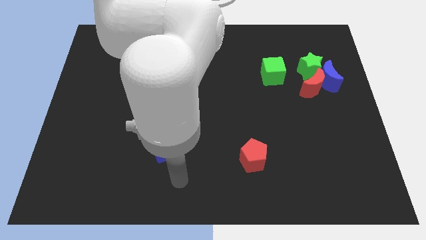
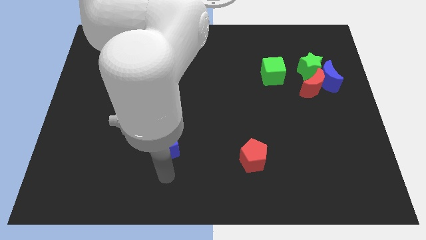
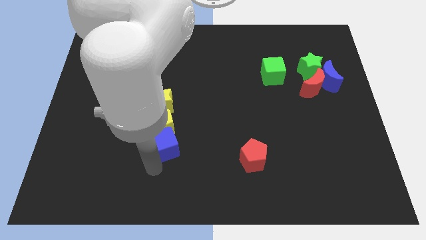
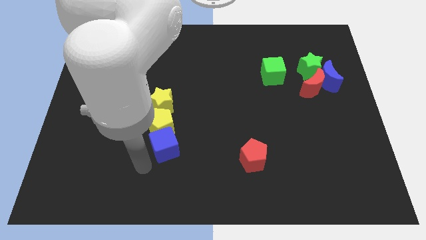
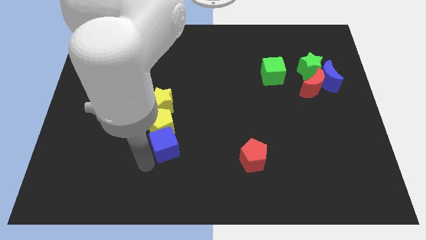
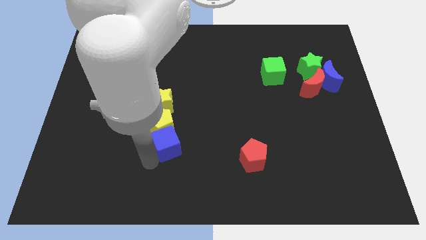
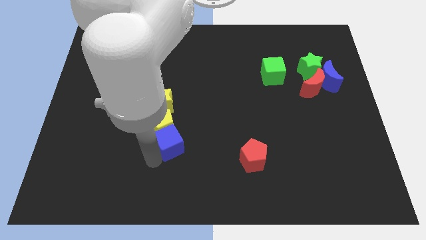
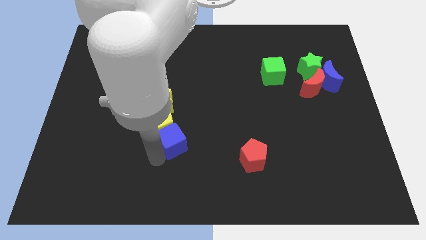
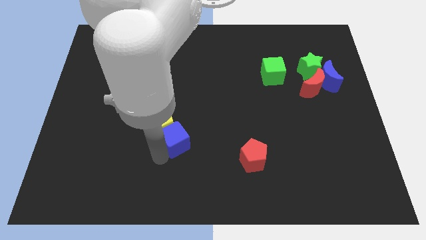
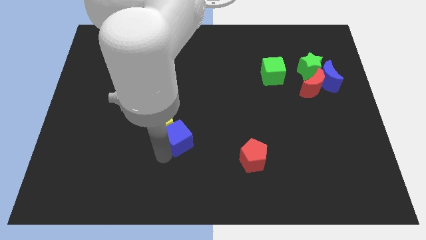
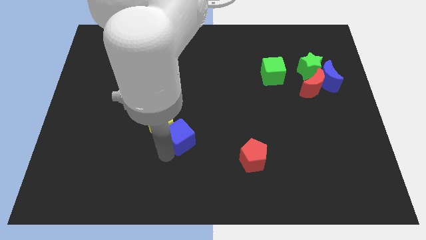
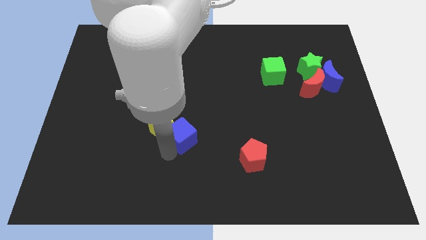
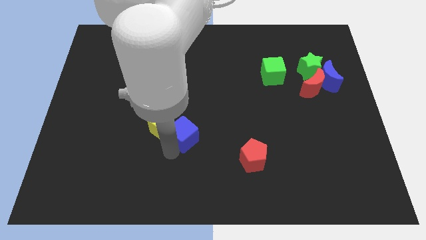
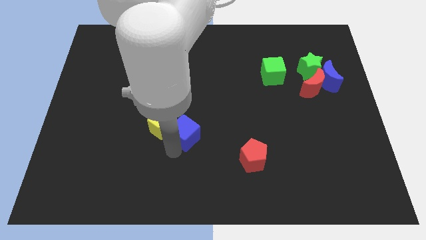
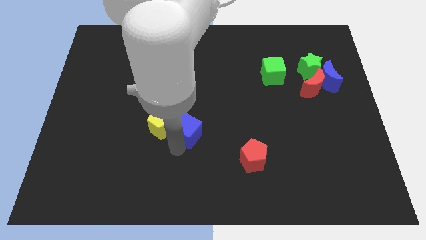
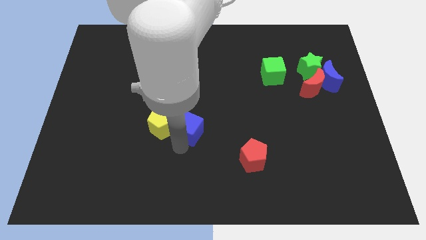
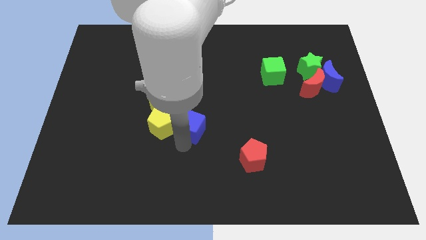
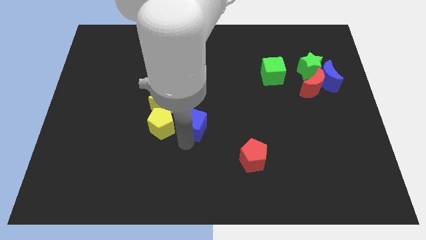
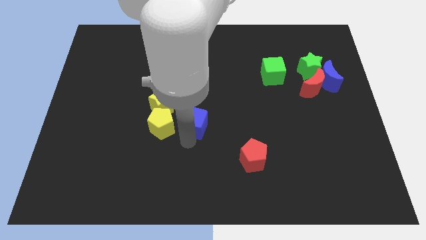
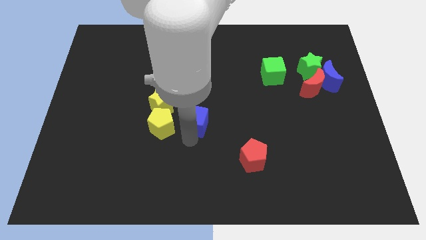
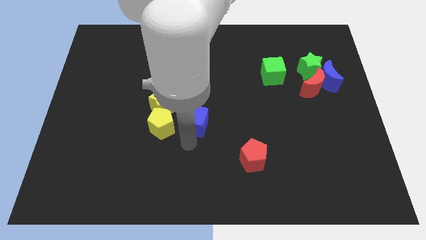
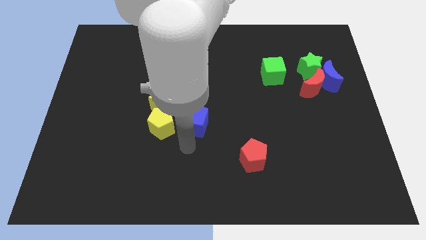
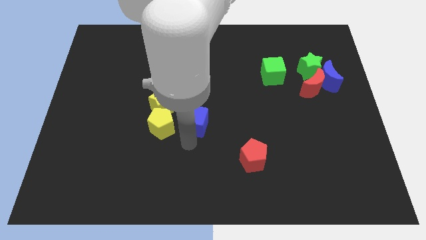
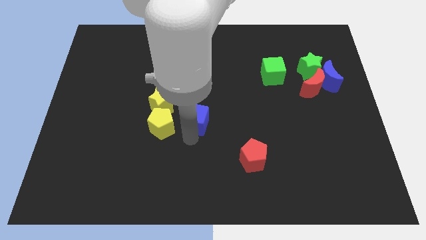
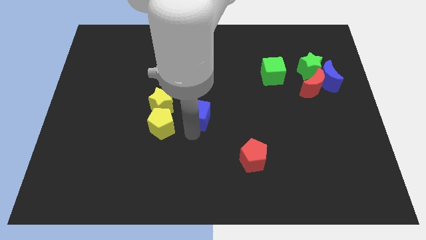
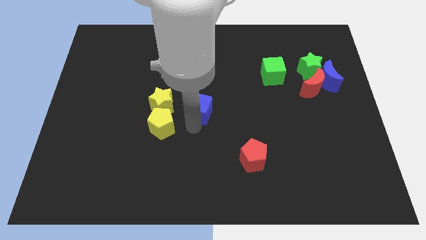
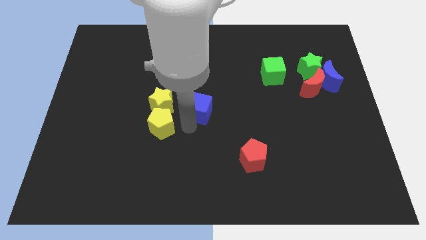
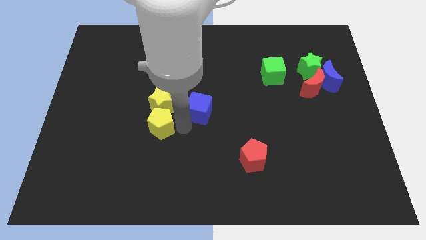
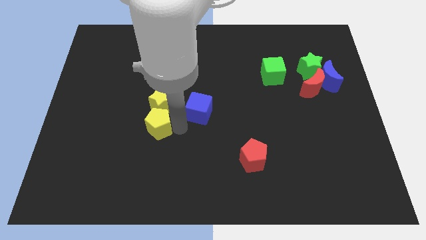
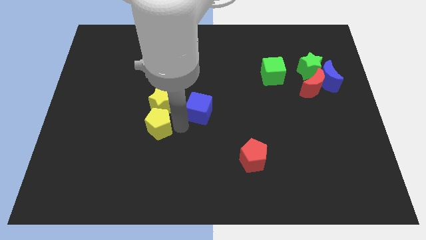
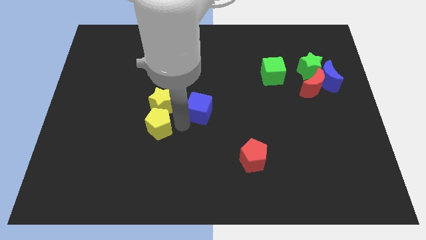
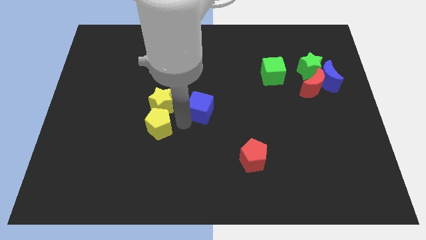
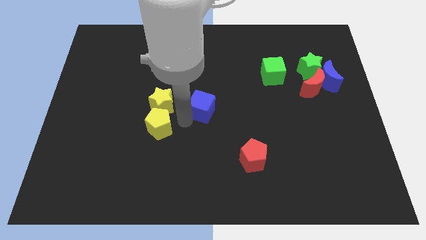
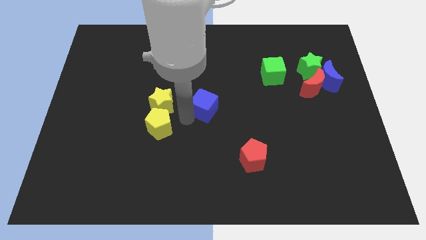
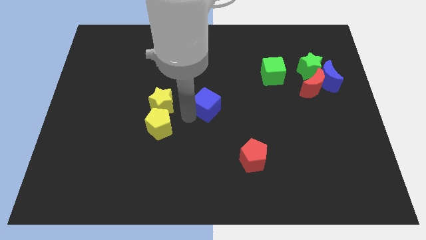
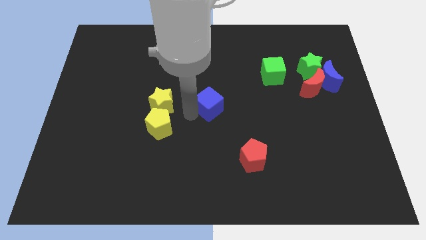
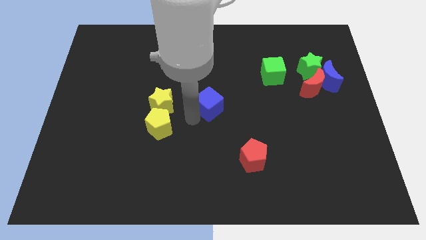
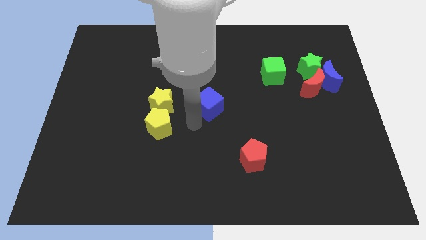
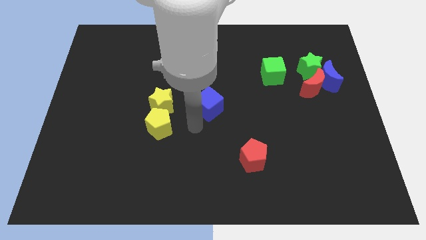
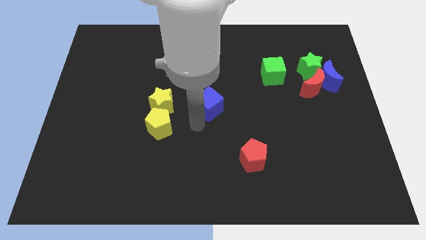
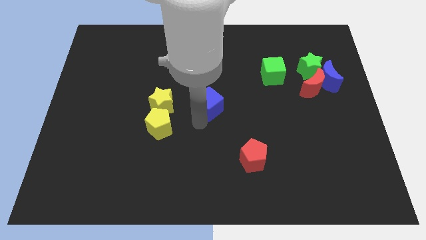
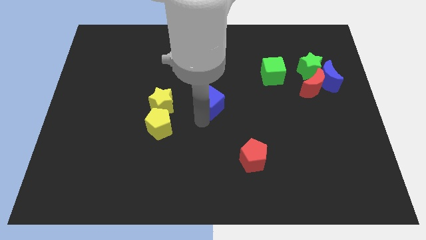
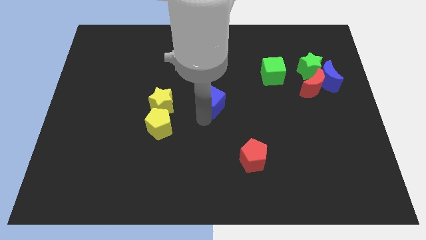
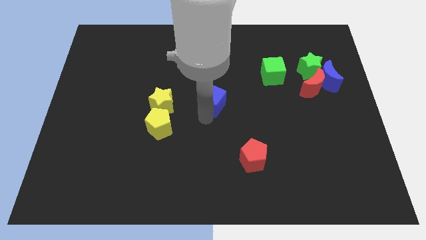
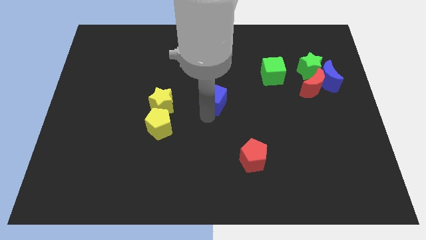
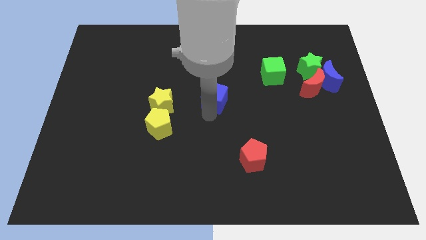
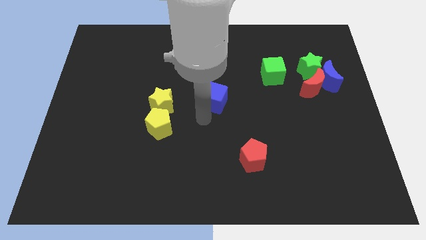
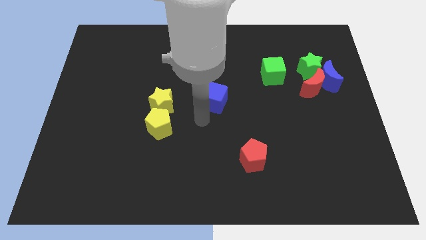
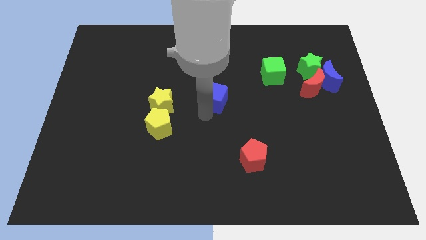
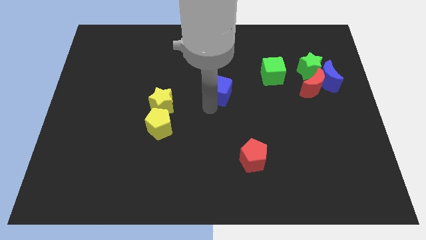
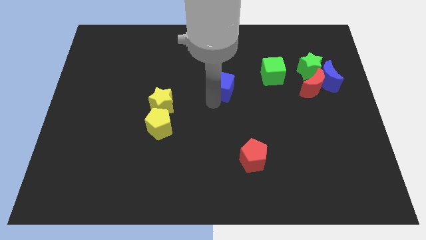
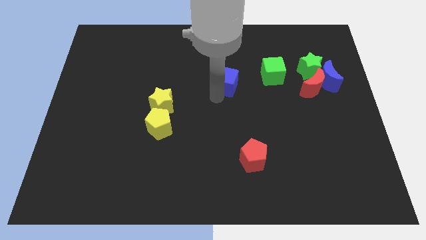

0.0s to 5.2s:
move the blue cube to the left of the green cube

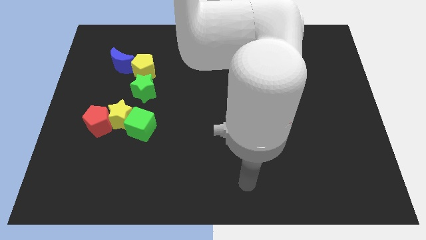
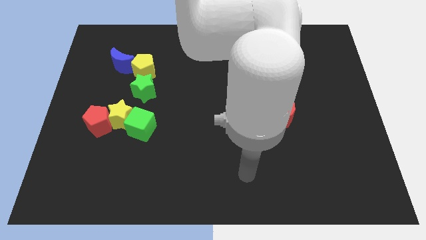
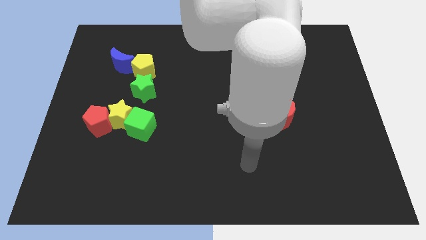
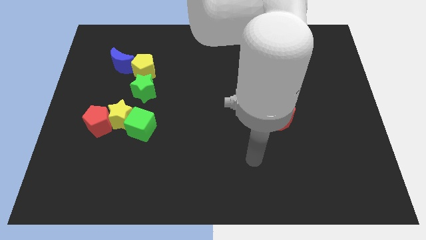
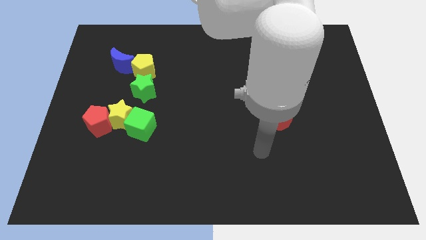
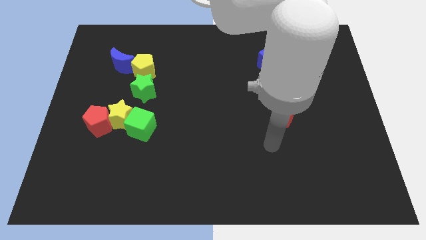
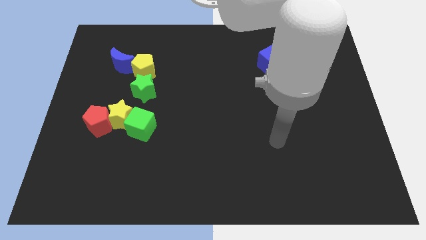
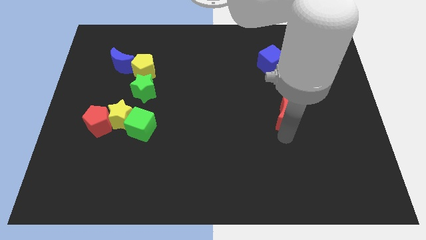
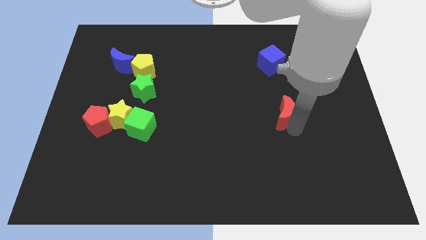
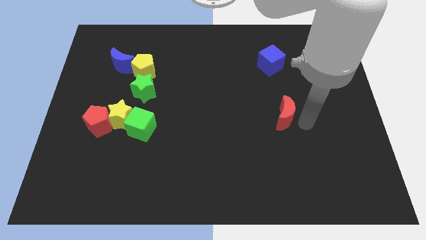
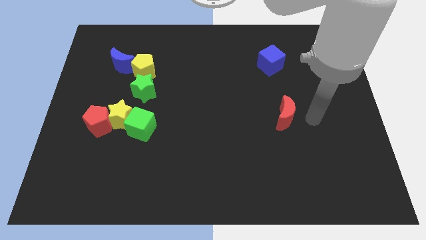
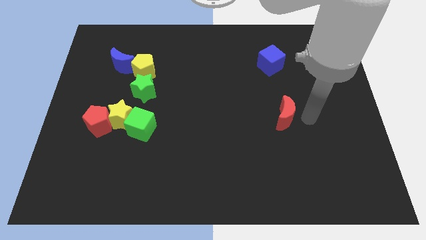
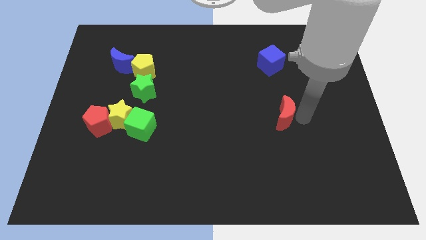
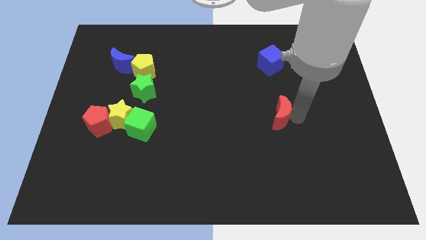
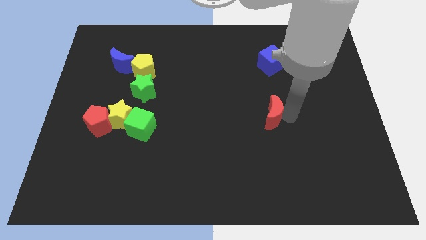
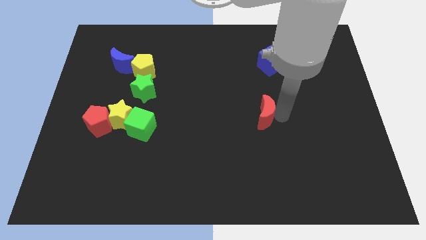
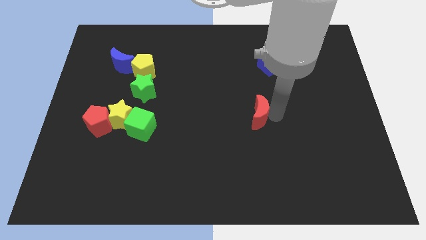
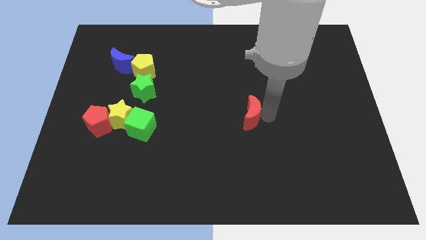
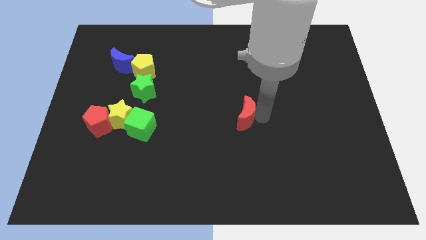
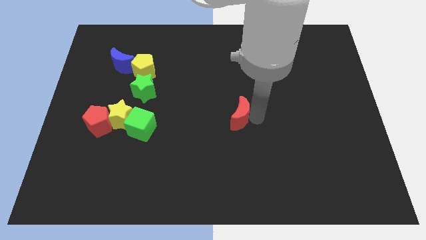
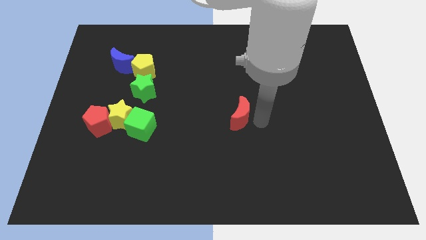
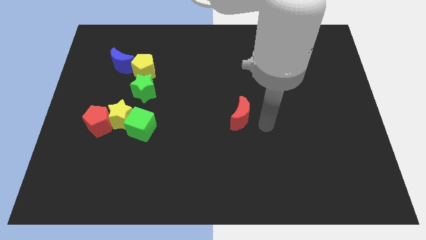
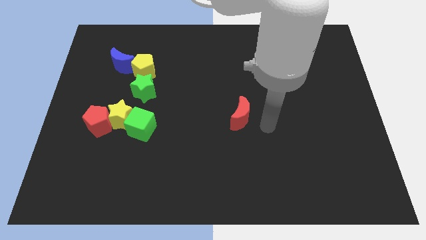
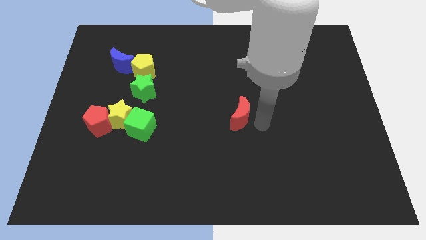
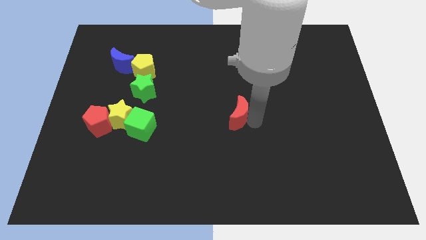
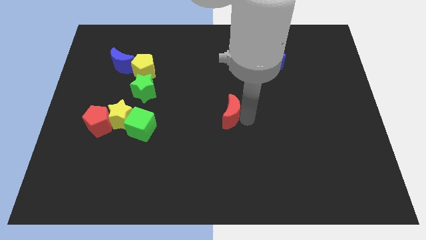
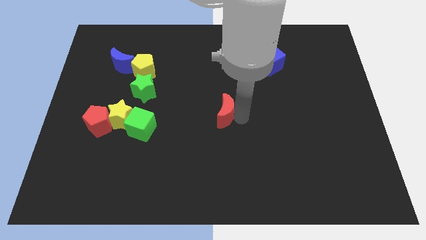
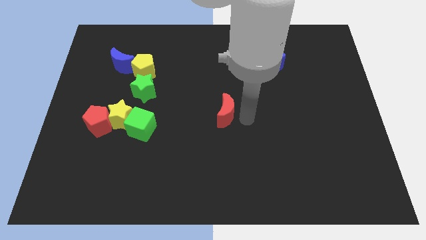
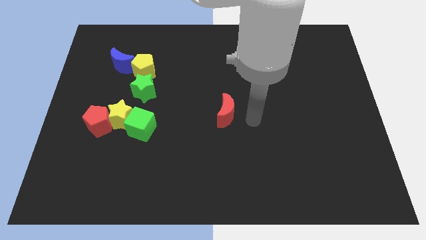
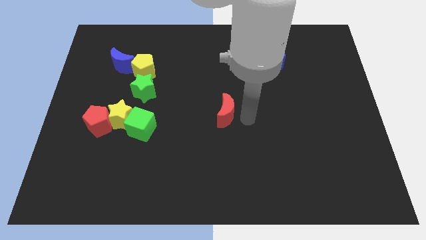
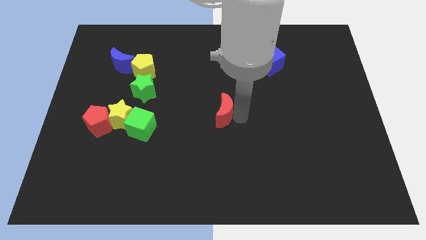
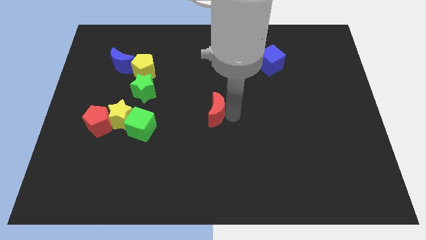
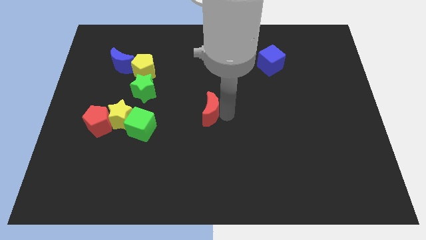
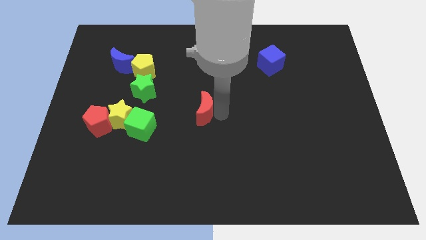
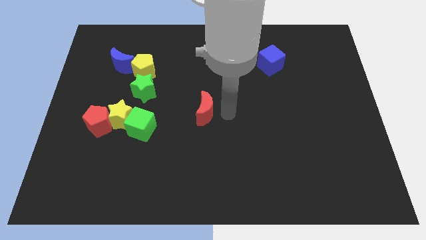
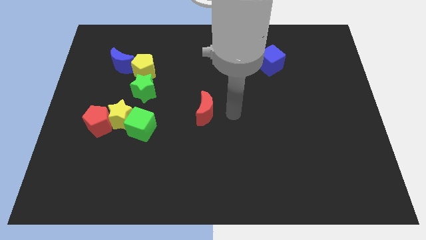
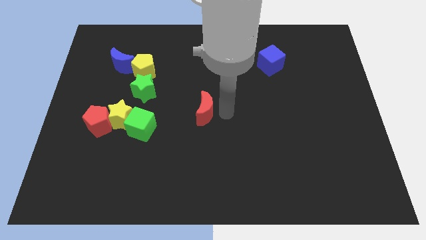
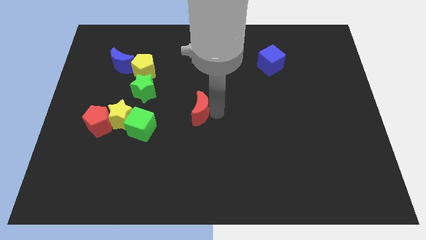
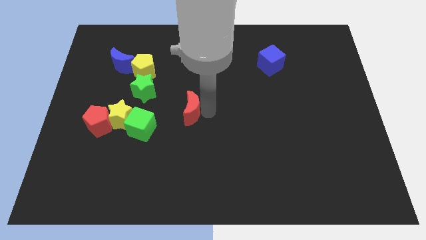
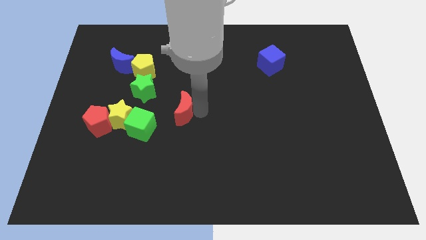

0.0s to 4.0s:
push the red moon to the top right side of the green cube
